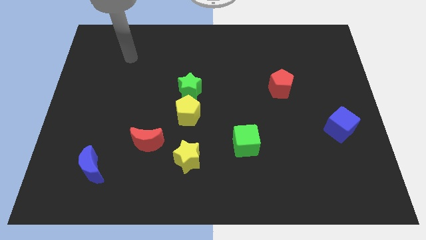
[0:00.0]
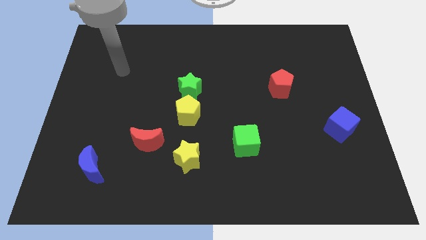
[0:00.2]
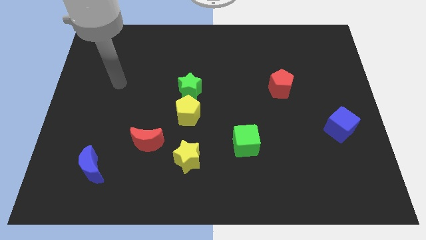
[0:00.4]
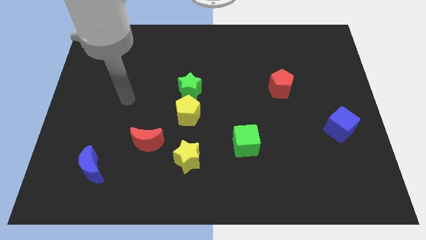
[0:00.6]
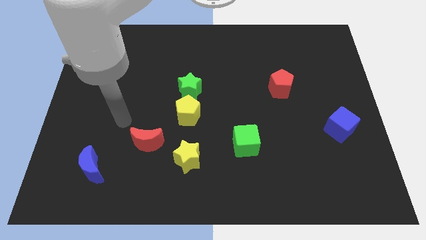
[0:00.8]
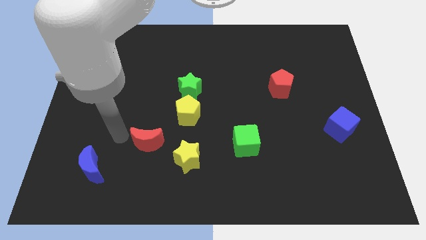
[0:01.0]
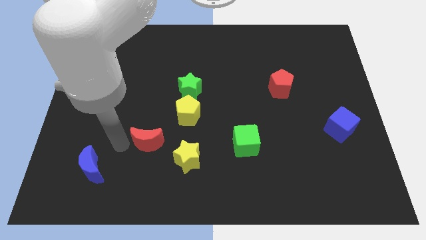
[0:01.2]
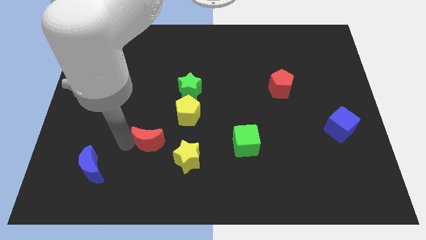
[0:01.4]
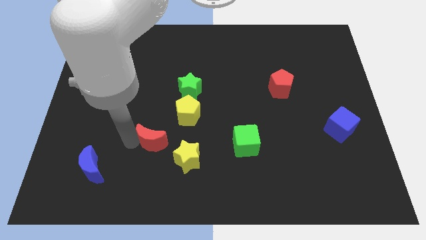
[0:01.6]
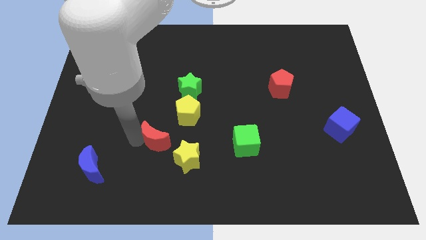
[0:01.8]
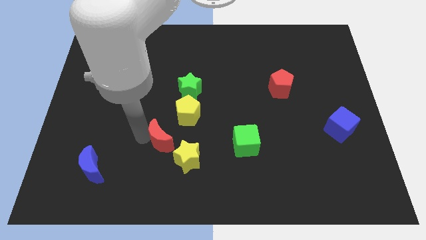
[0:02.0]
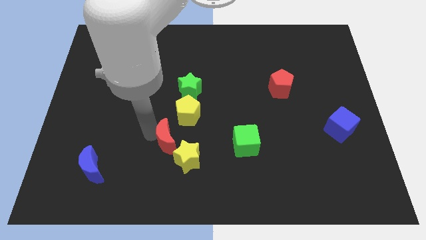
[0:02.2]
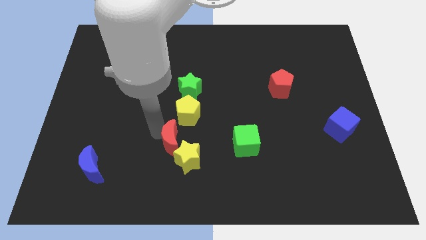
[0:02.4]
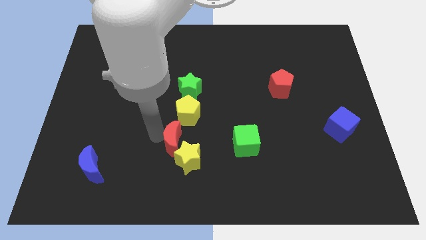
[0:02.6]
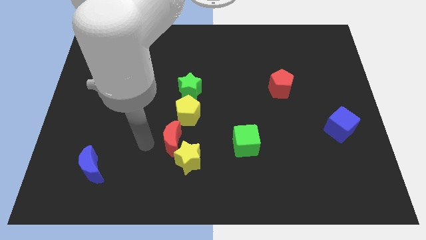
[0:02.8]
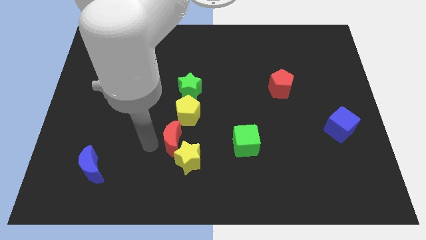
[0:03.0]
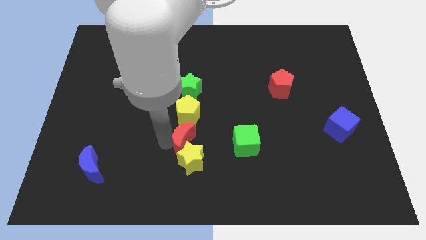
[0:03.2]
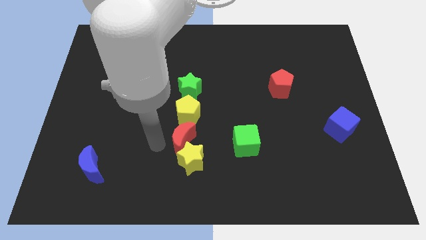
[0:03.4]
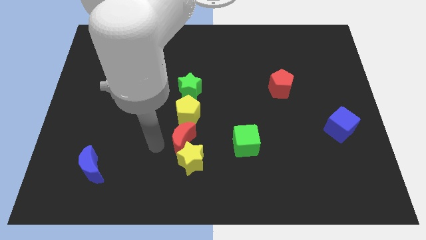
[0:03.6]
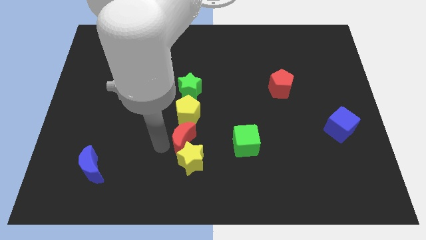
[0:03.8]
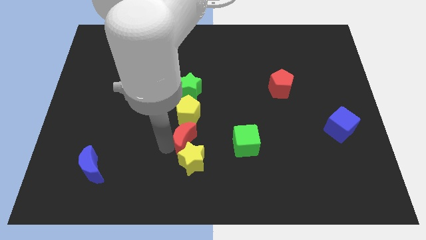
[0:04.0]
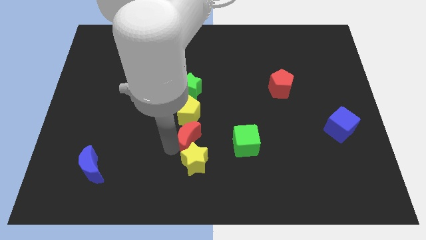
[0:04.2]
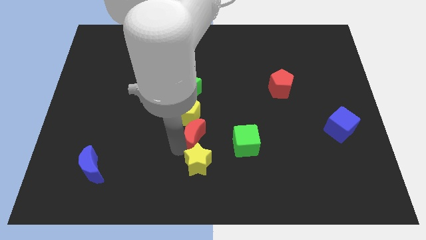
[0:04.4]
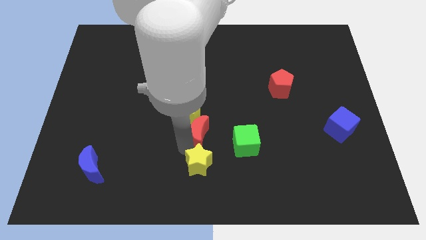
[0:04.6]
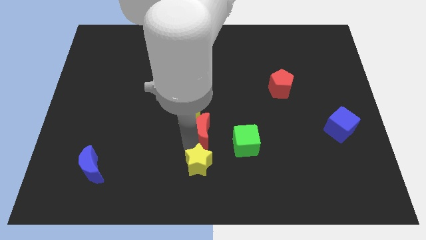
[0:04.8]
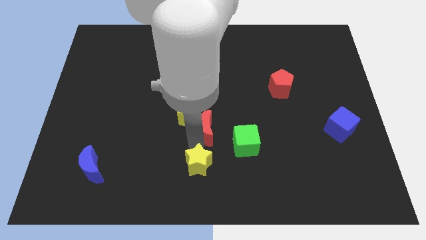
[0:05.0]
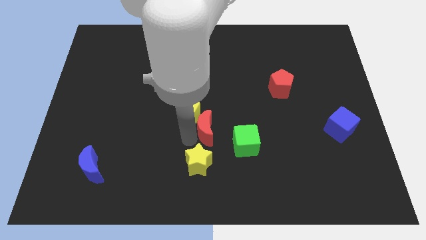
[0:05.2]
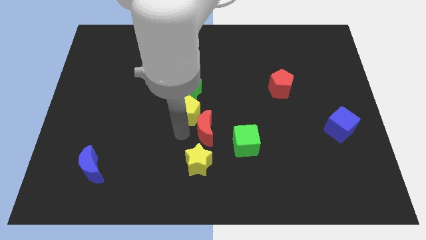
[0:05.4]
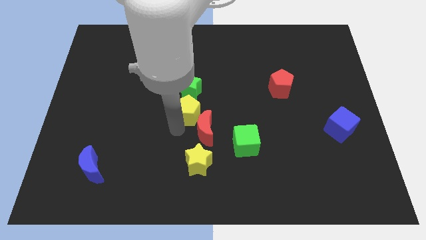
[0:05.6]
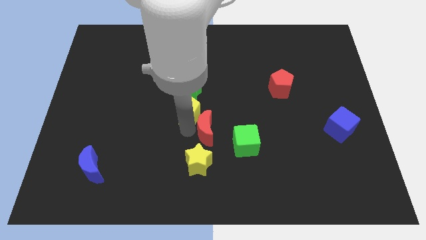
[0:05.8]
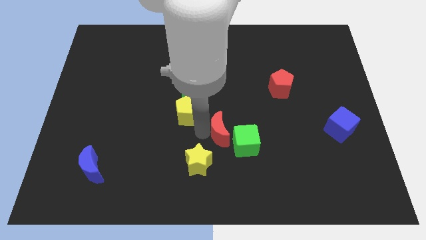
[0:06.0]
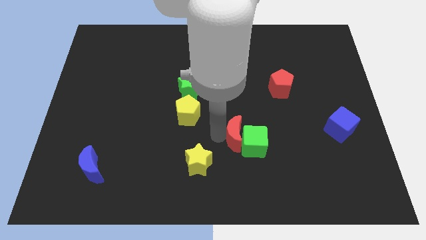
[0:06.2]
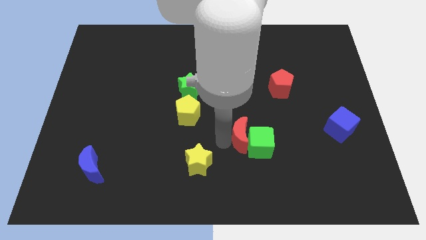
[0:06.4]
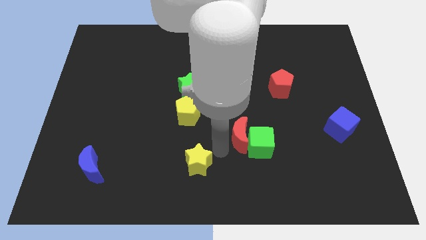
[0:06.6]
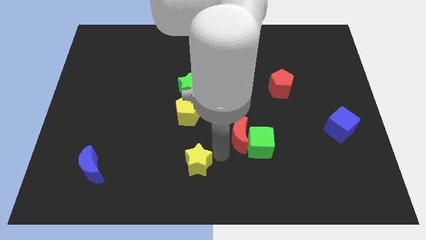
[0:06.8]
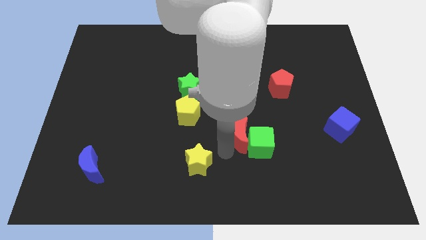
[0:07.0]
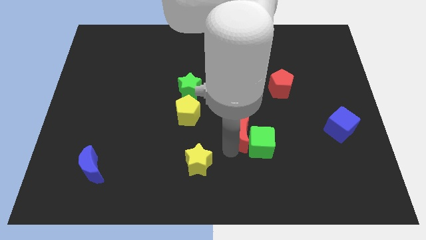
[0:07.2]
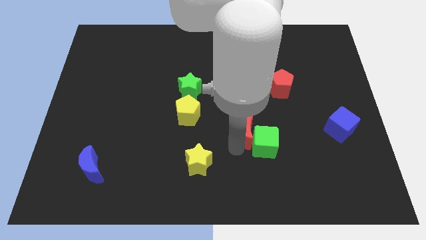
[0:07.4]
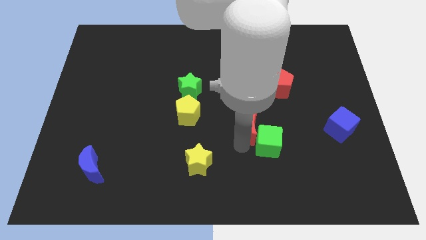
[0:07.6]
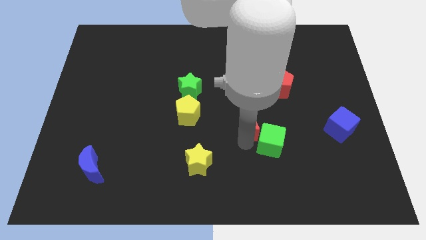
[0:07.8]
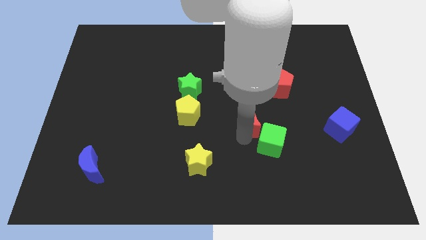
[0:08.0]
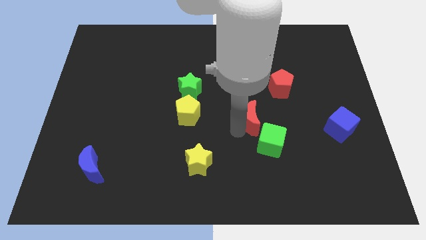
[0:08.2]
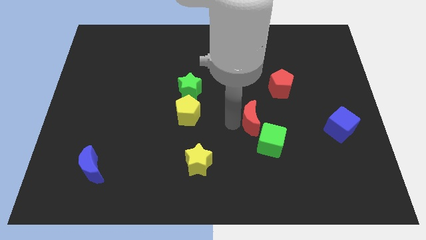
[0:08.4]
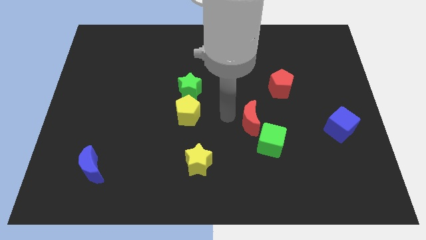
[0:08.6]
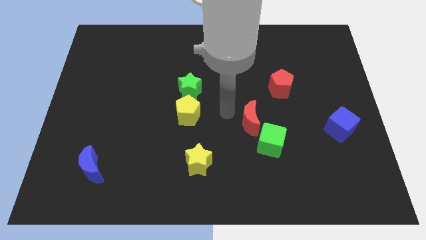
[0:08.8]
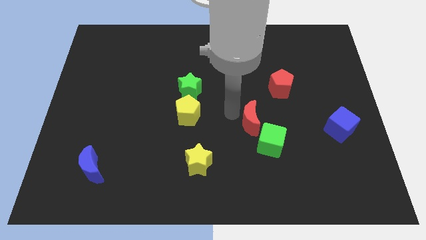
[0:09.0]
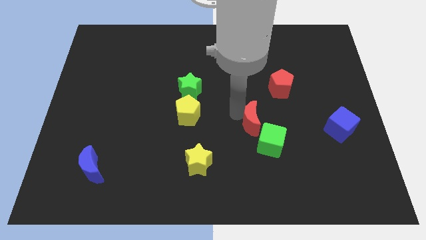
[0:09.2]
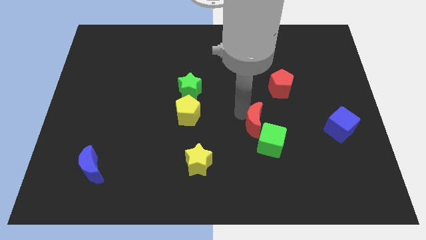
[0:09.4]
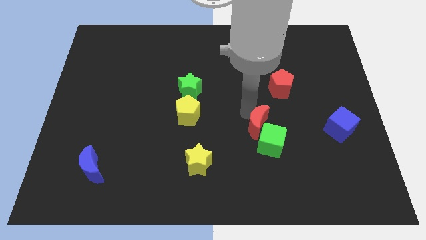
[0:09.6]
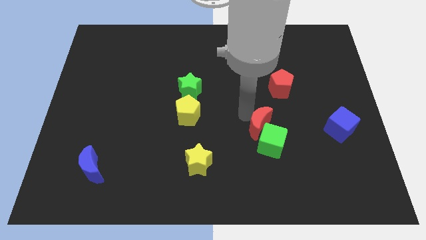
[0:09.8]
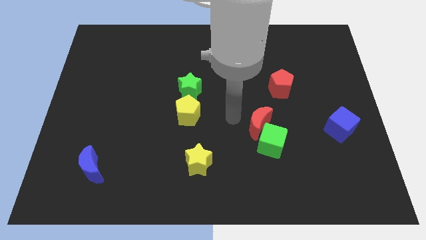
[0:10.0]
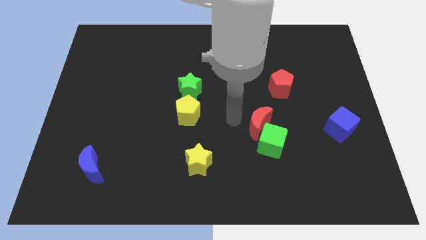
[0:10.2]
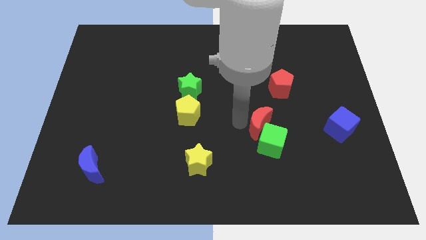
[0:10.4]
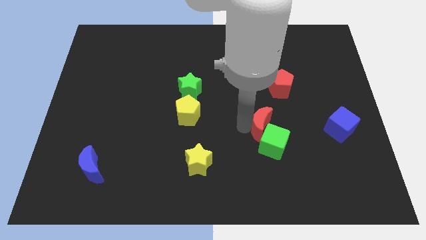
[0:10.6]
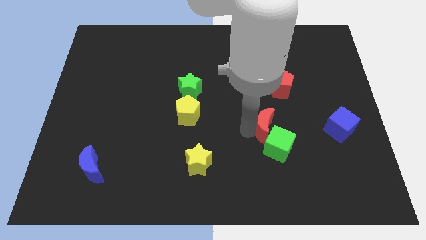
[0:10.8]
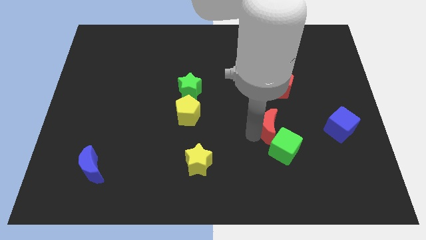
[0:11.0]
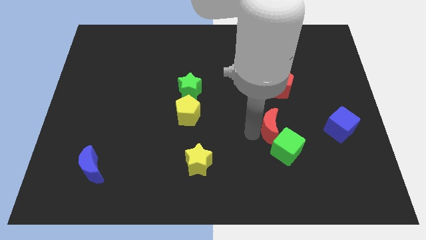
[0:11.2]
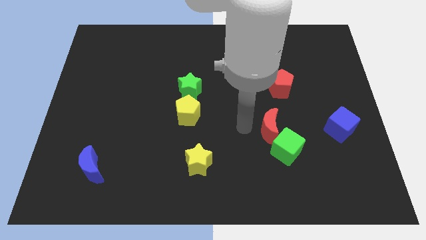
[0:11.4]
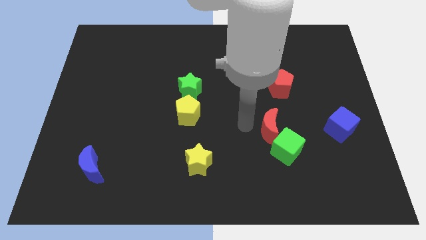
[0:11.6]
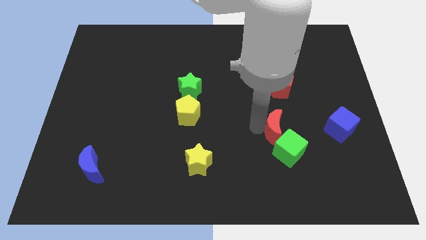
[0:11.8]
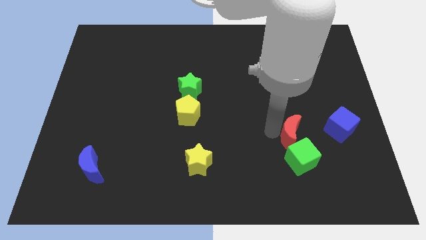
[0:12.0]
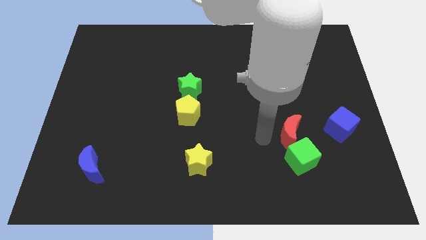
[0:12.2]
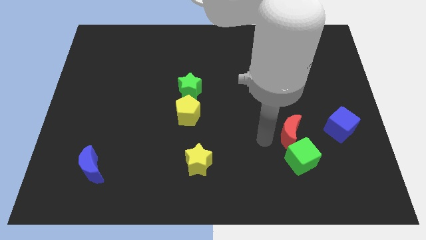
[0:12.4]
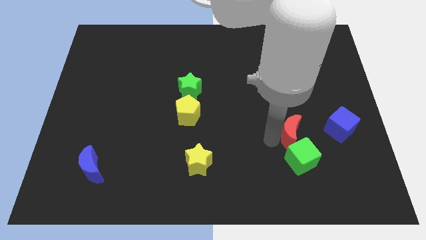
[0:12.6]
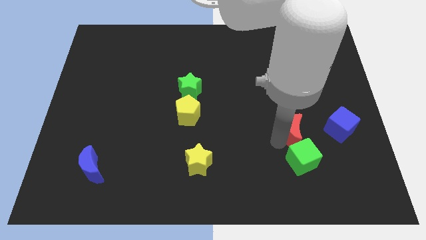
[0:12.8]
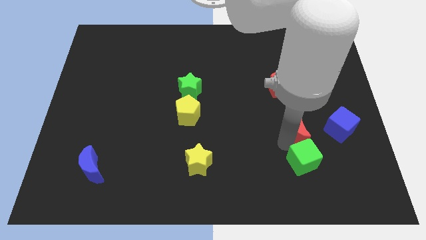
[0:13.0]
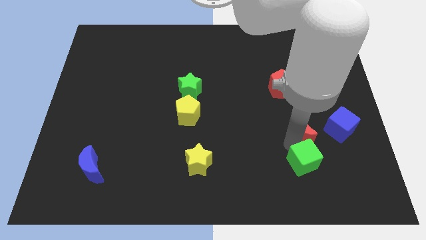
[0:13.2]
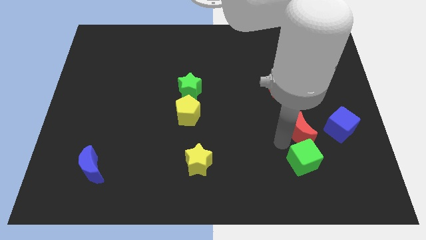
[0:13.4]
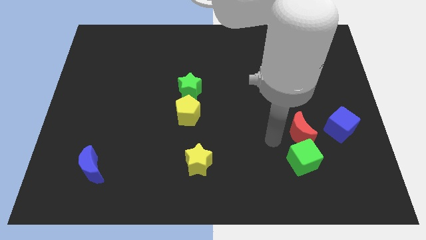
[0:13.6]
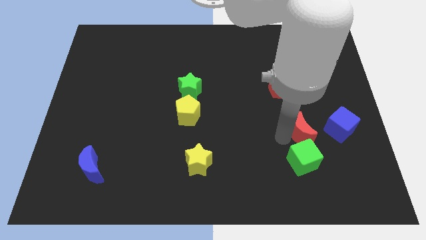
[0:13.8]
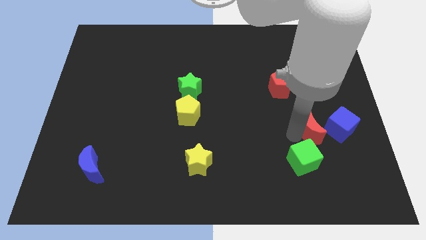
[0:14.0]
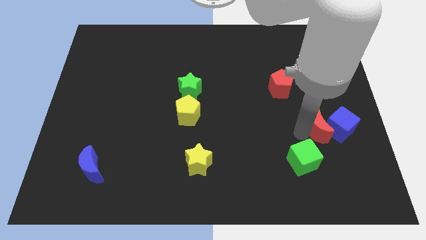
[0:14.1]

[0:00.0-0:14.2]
move the red moon to the blue cube
